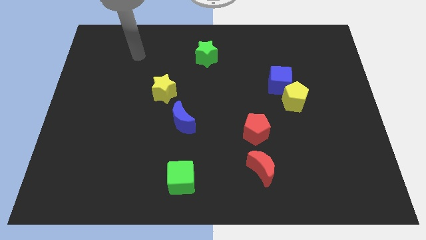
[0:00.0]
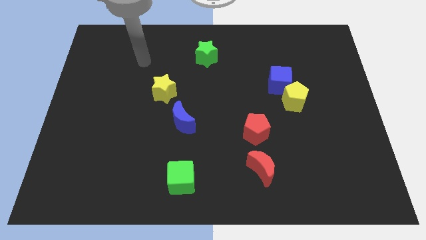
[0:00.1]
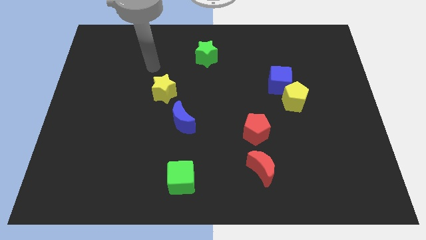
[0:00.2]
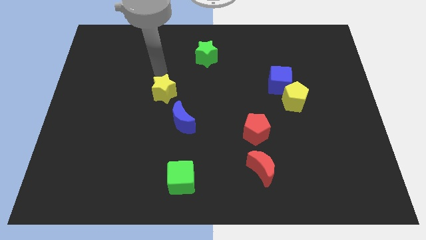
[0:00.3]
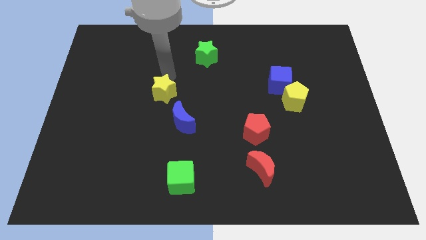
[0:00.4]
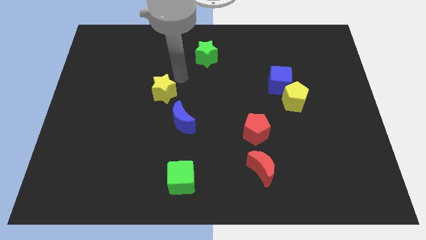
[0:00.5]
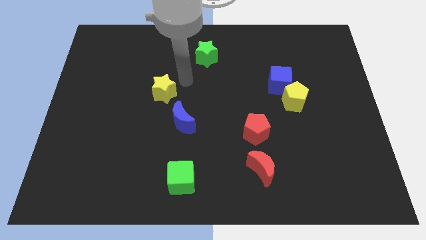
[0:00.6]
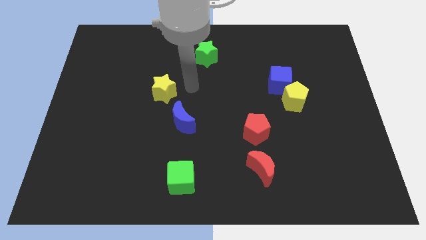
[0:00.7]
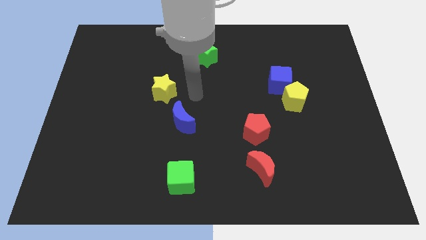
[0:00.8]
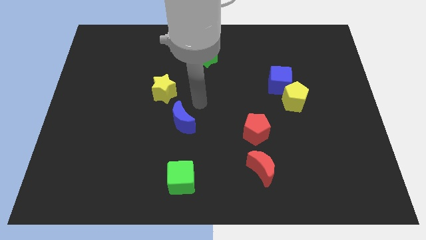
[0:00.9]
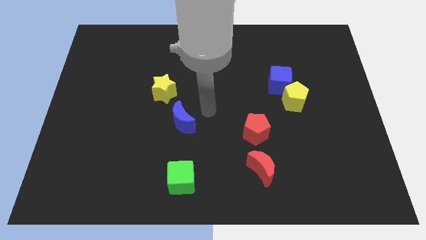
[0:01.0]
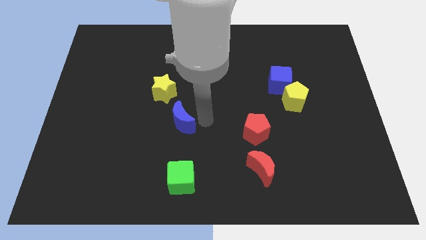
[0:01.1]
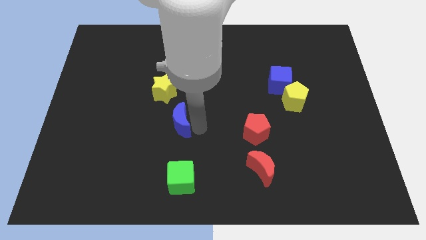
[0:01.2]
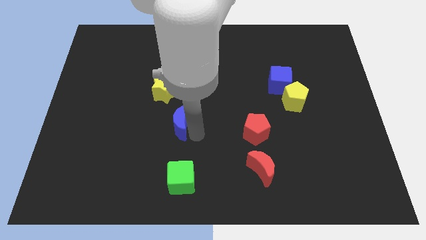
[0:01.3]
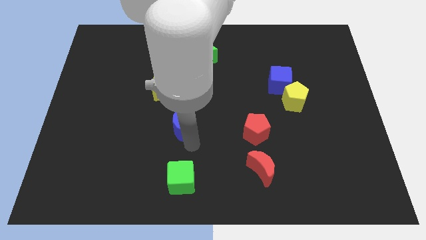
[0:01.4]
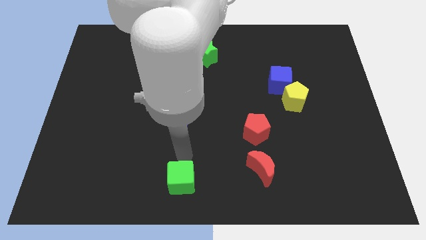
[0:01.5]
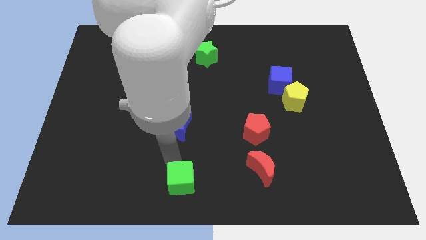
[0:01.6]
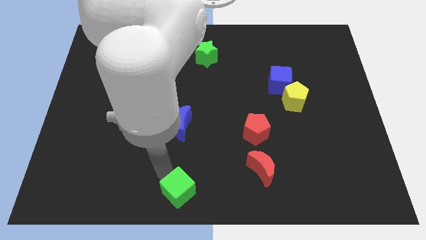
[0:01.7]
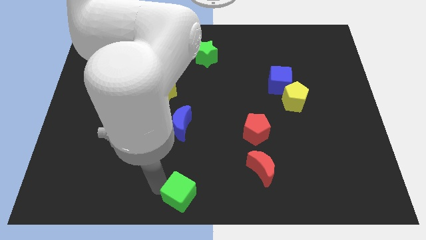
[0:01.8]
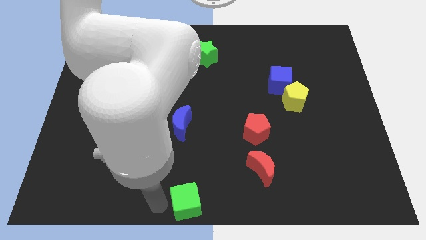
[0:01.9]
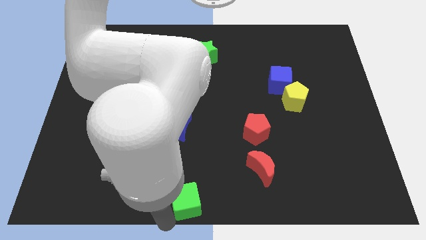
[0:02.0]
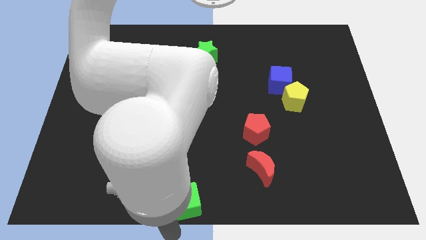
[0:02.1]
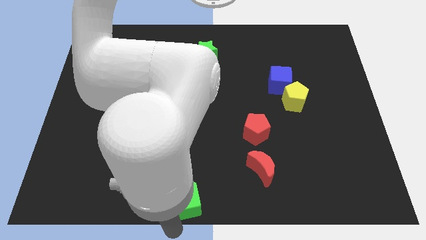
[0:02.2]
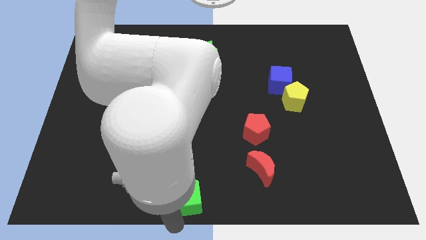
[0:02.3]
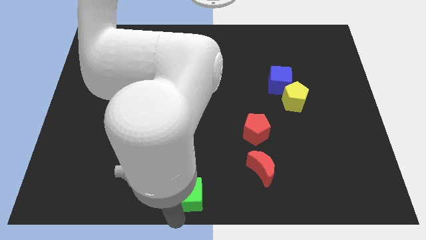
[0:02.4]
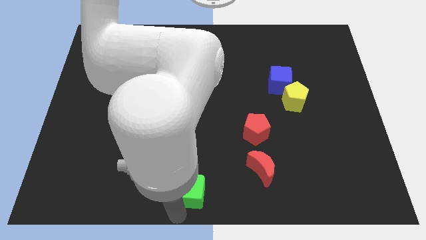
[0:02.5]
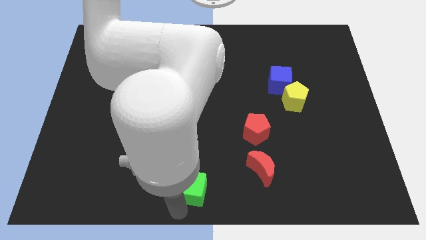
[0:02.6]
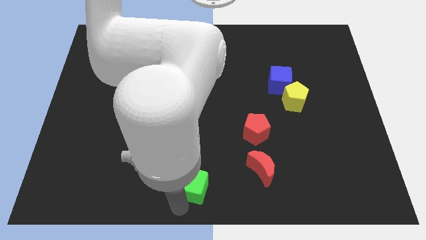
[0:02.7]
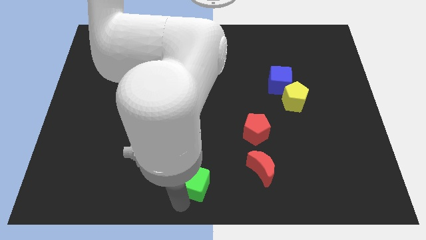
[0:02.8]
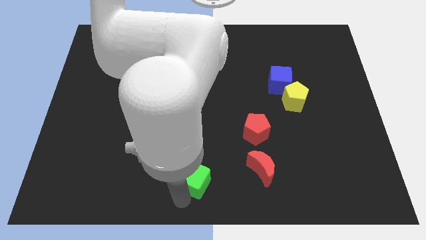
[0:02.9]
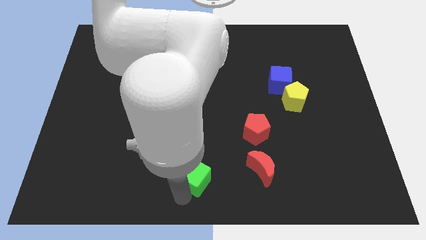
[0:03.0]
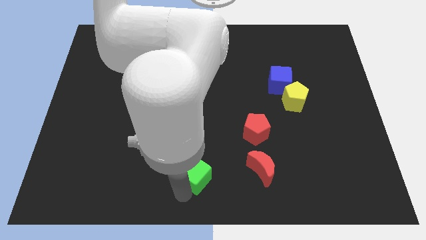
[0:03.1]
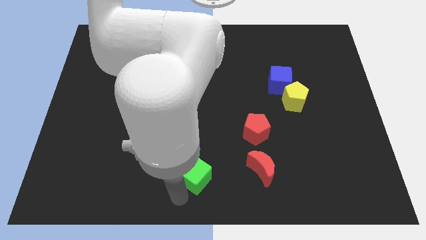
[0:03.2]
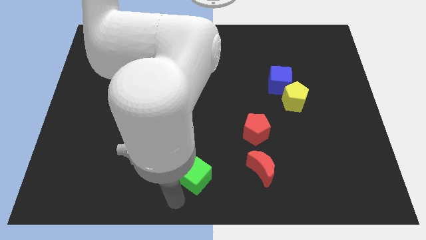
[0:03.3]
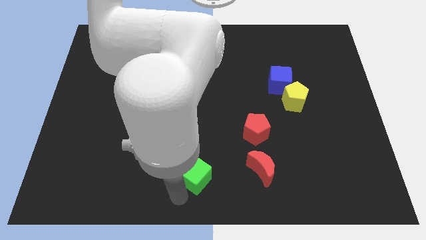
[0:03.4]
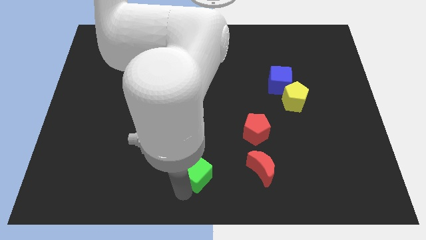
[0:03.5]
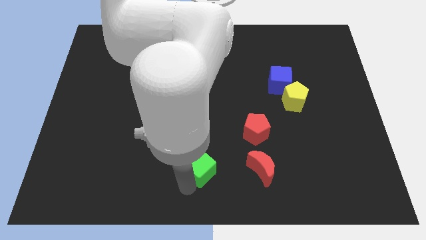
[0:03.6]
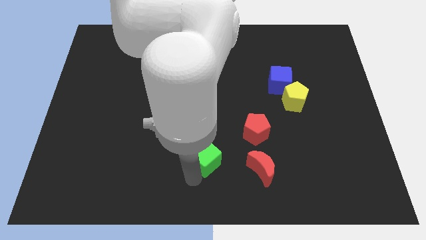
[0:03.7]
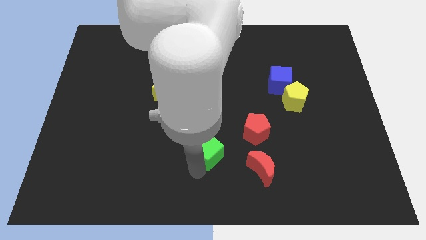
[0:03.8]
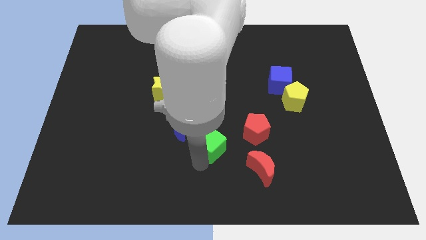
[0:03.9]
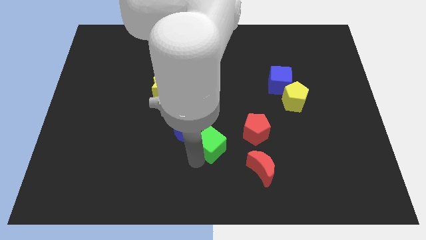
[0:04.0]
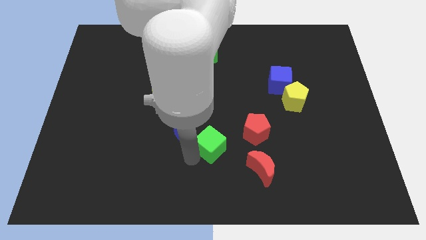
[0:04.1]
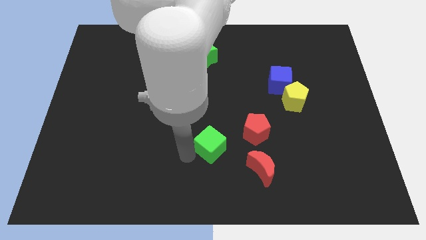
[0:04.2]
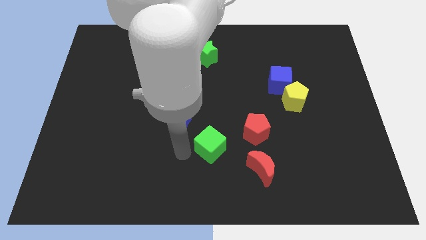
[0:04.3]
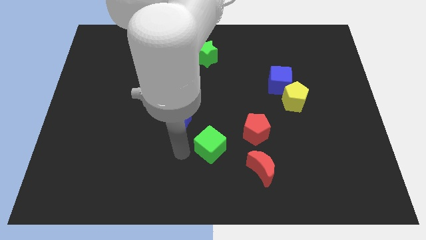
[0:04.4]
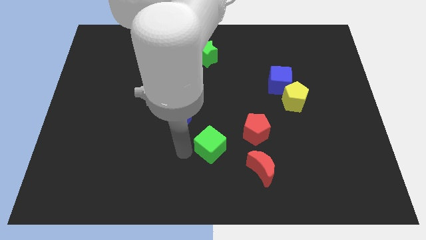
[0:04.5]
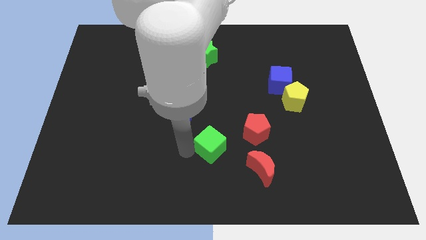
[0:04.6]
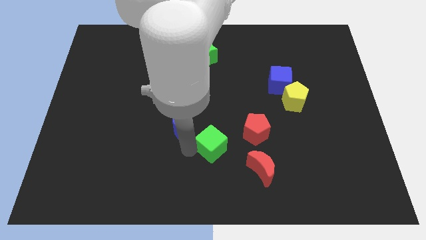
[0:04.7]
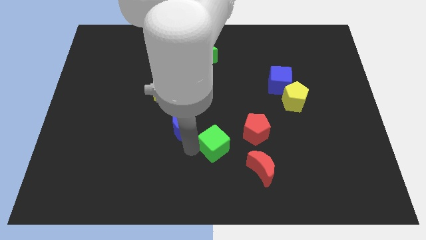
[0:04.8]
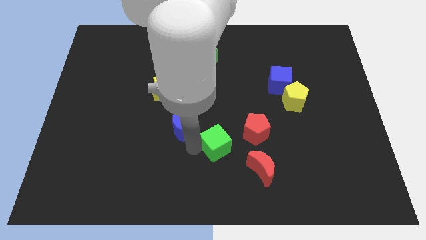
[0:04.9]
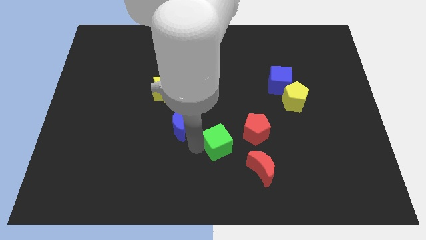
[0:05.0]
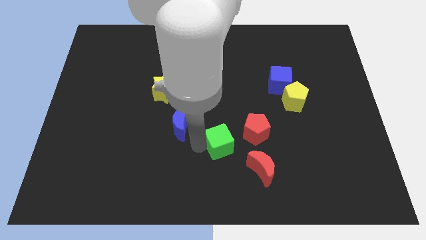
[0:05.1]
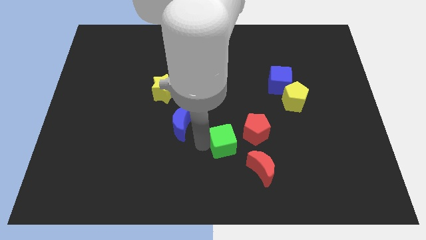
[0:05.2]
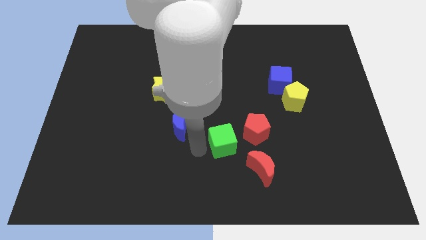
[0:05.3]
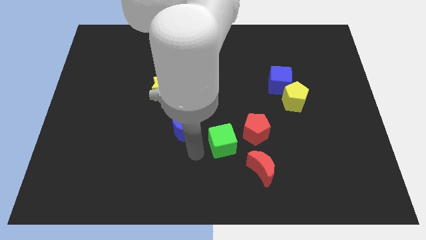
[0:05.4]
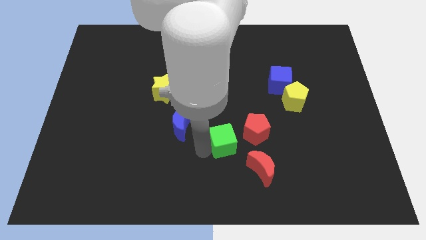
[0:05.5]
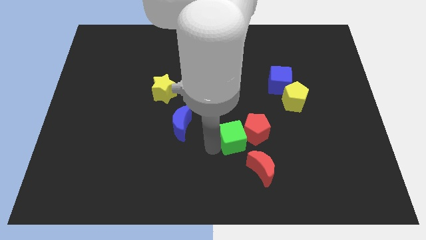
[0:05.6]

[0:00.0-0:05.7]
move the green cube close to the red pentagon

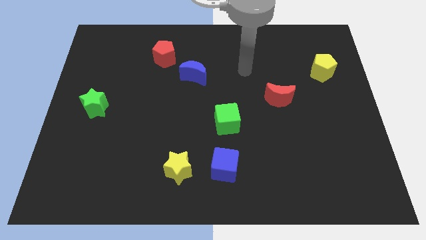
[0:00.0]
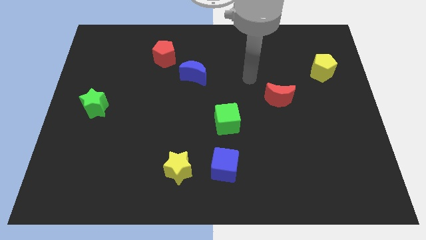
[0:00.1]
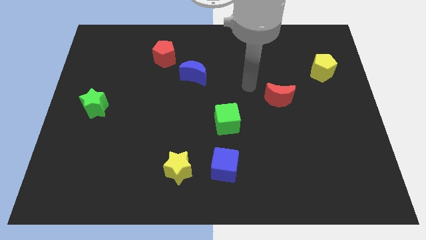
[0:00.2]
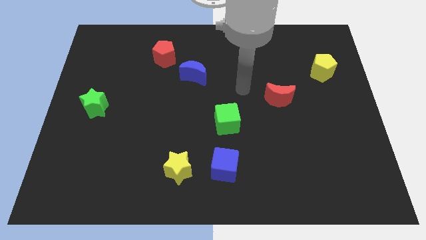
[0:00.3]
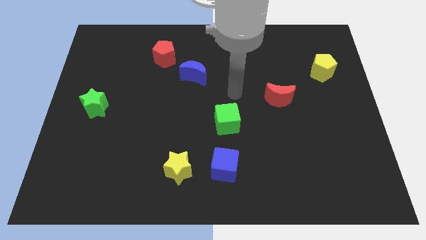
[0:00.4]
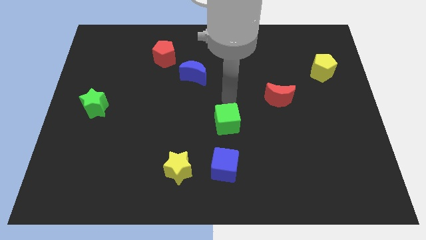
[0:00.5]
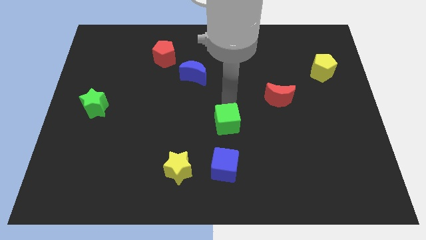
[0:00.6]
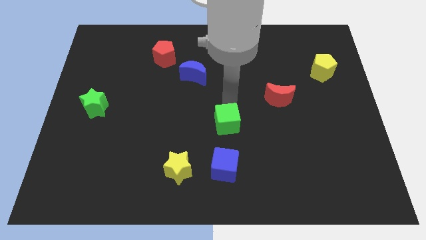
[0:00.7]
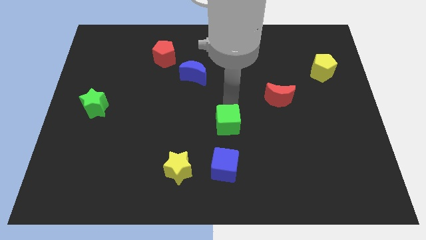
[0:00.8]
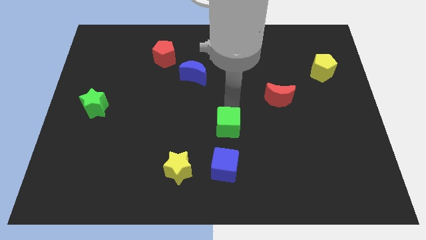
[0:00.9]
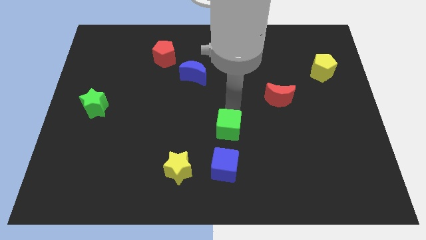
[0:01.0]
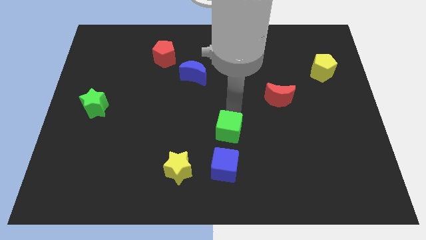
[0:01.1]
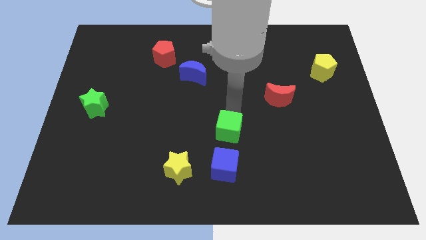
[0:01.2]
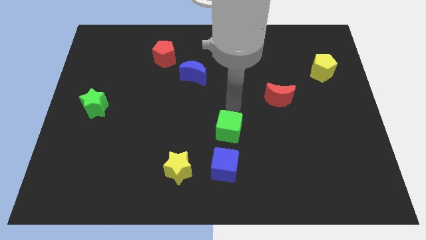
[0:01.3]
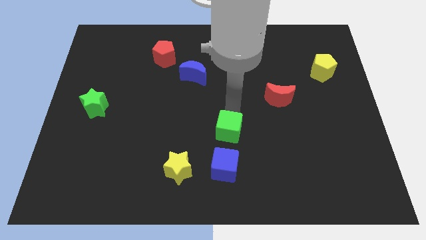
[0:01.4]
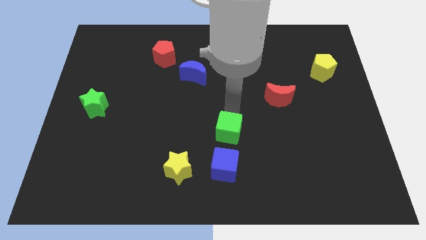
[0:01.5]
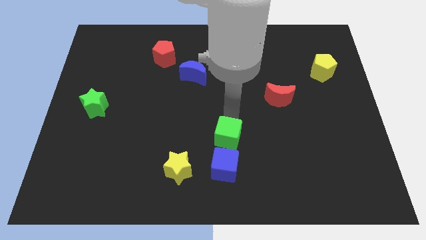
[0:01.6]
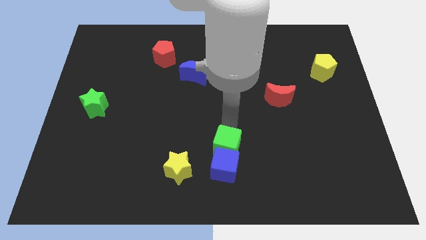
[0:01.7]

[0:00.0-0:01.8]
slide the green cube next to the blue cube
